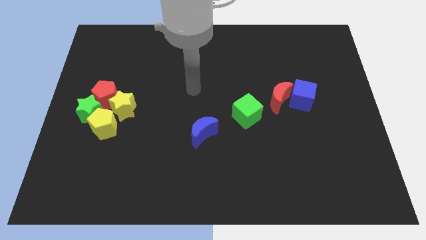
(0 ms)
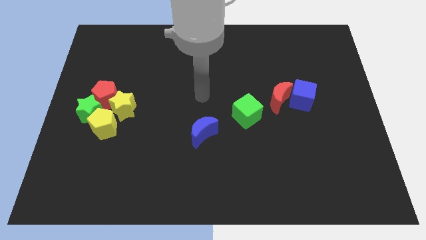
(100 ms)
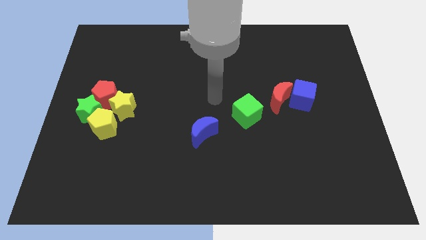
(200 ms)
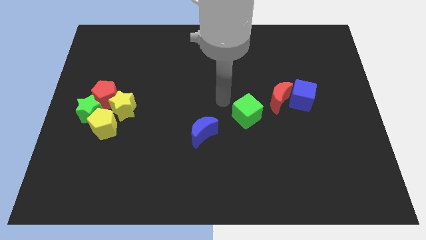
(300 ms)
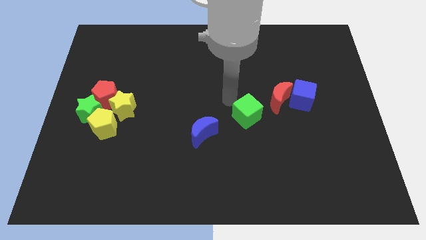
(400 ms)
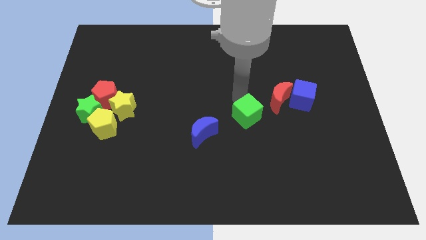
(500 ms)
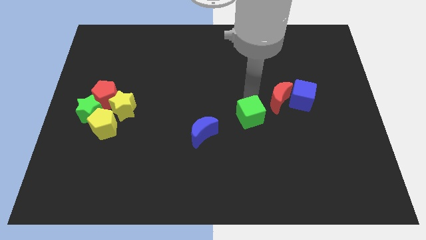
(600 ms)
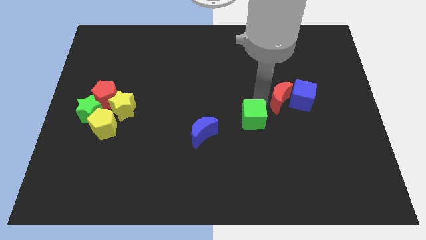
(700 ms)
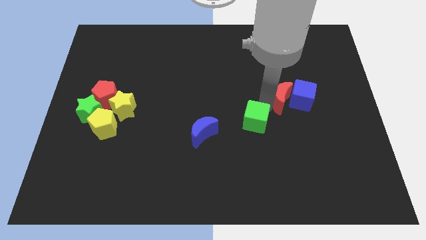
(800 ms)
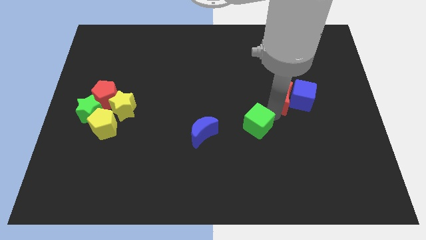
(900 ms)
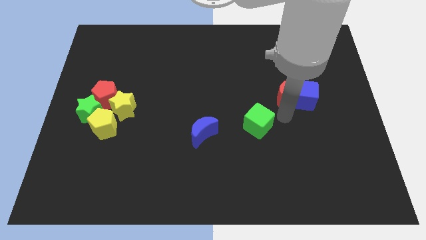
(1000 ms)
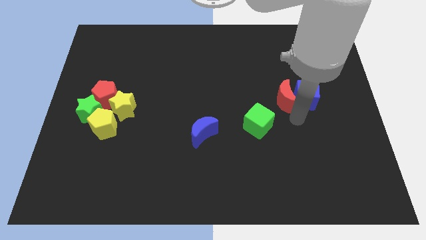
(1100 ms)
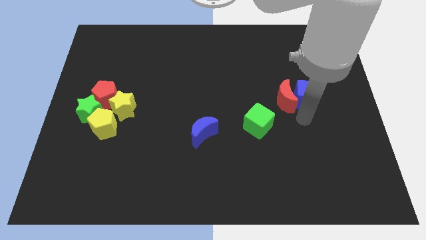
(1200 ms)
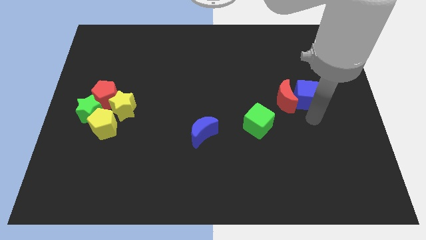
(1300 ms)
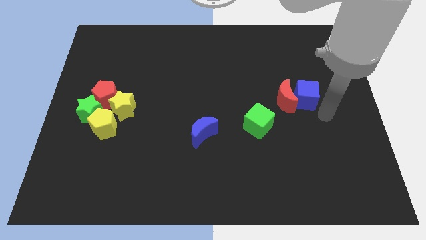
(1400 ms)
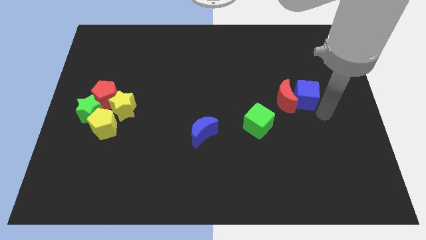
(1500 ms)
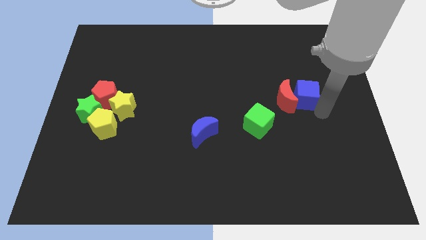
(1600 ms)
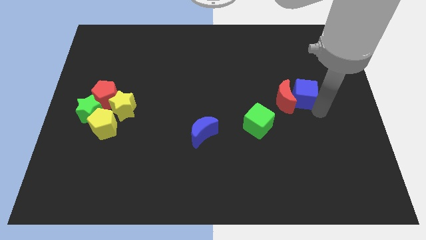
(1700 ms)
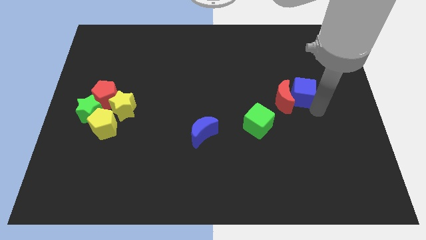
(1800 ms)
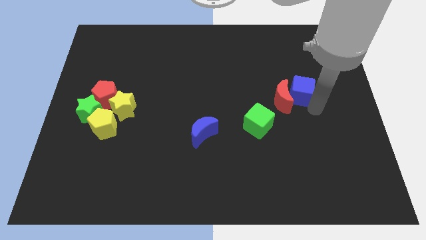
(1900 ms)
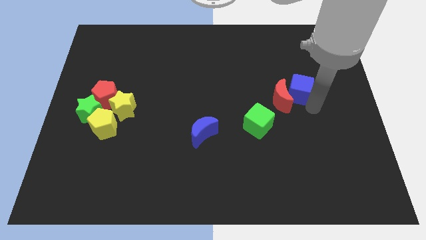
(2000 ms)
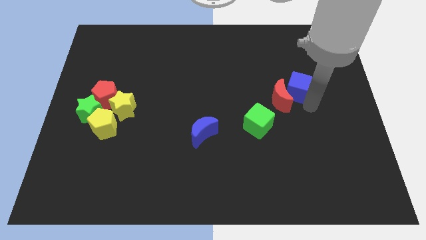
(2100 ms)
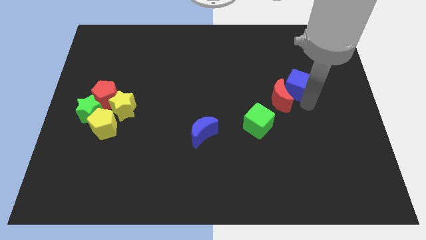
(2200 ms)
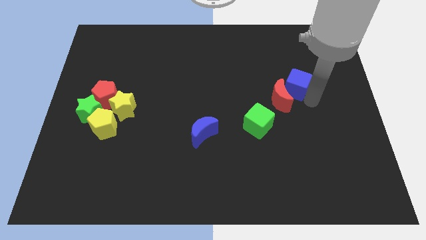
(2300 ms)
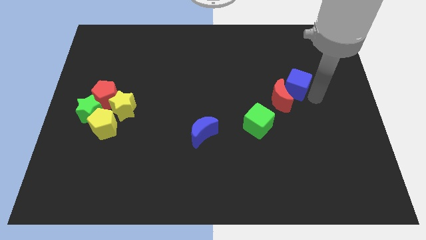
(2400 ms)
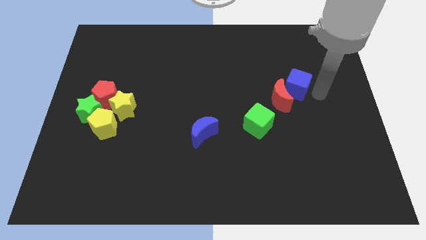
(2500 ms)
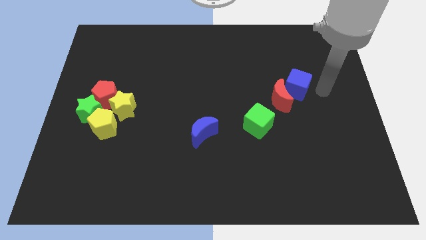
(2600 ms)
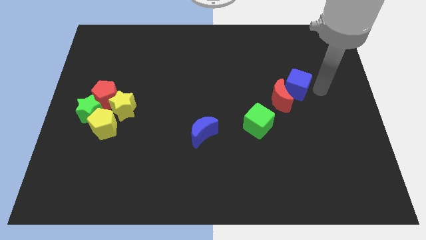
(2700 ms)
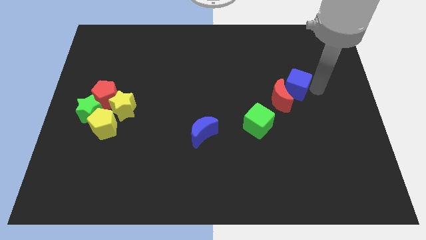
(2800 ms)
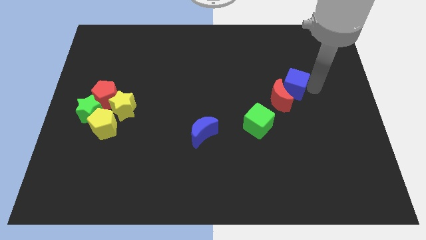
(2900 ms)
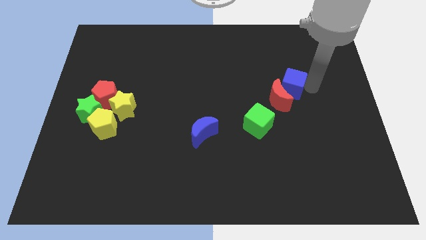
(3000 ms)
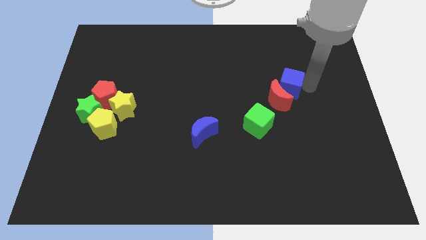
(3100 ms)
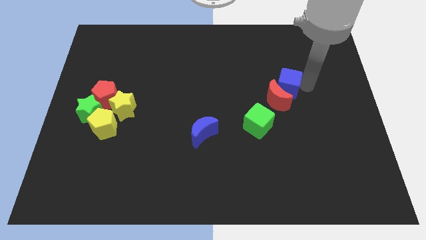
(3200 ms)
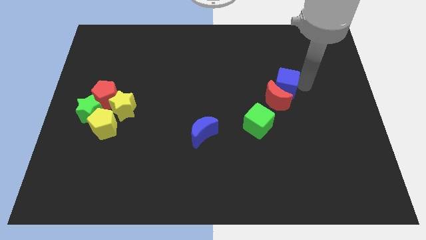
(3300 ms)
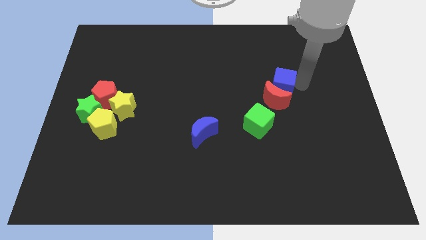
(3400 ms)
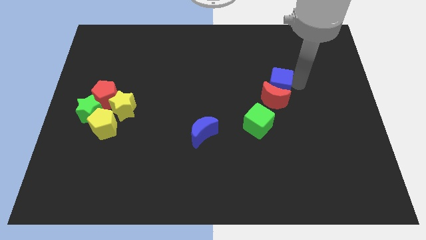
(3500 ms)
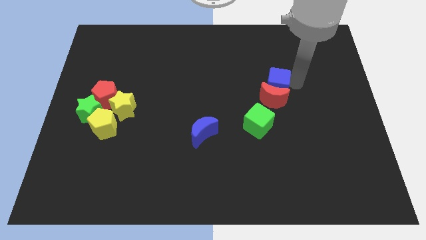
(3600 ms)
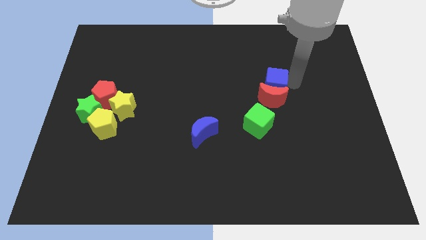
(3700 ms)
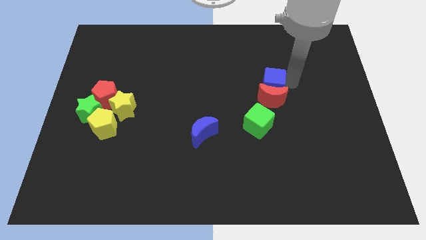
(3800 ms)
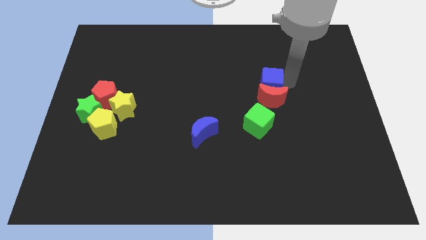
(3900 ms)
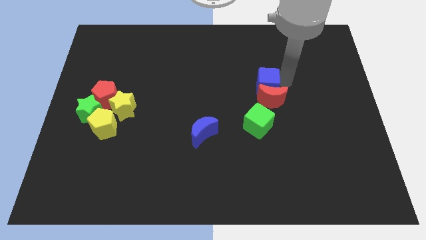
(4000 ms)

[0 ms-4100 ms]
slide the blue cube to the left a little bit

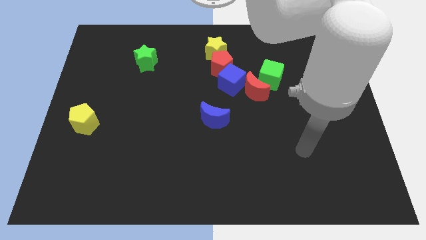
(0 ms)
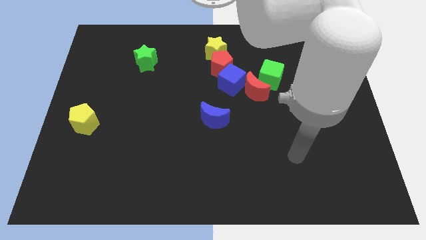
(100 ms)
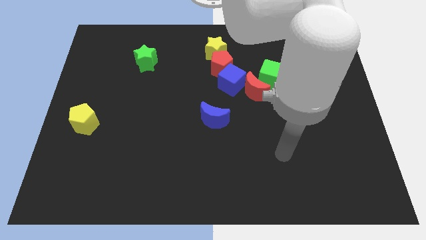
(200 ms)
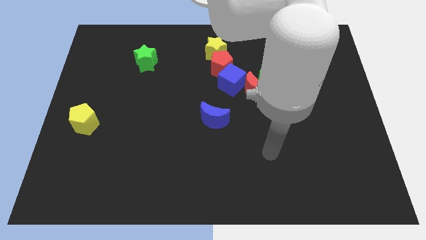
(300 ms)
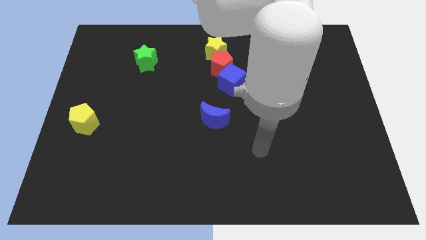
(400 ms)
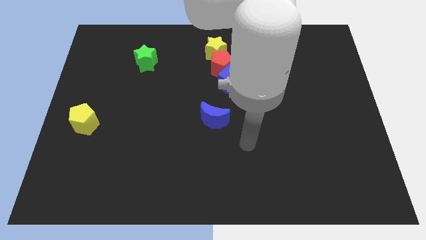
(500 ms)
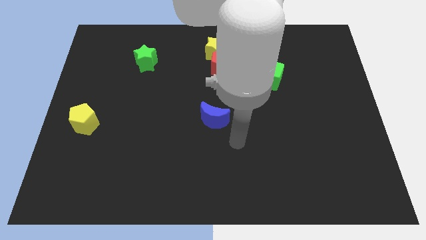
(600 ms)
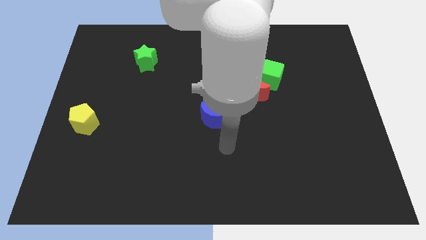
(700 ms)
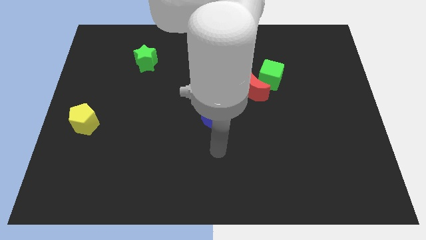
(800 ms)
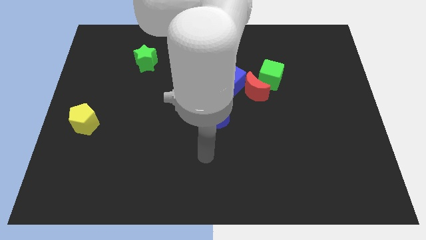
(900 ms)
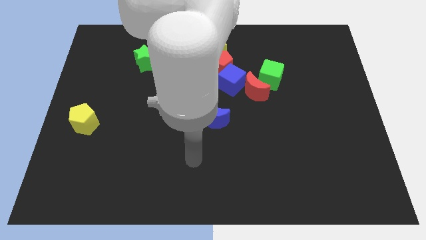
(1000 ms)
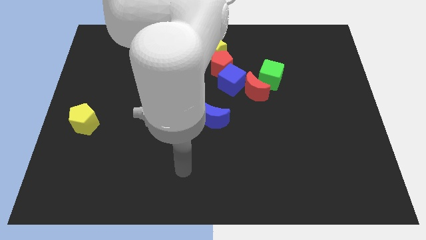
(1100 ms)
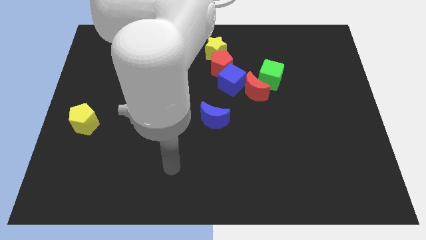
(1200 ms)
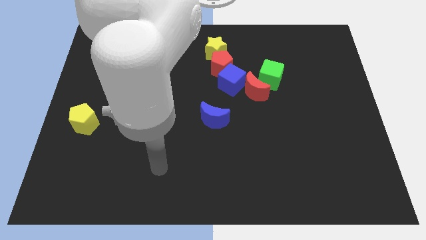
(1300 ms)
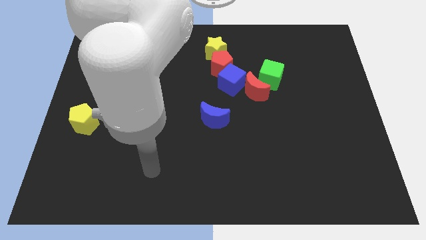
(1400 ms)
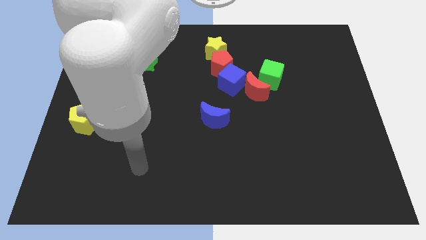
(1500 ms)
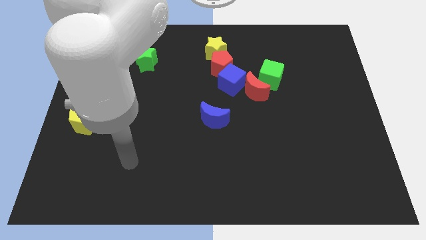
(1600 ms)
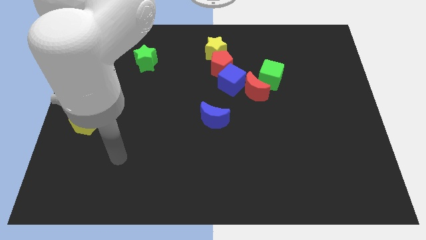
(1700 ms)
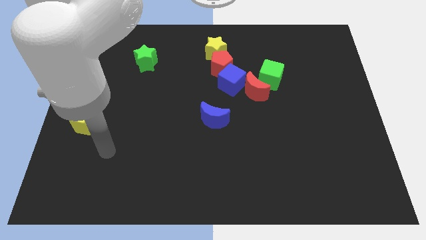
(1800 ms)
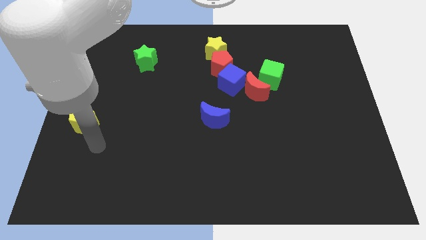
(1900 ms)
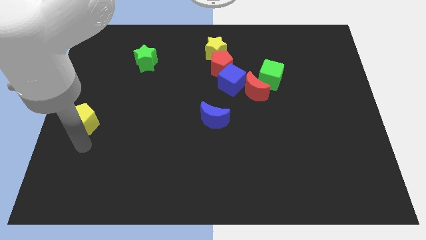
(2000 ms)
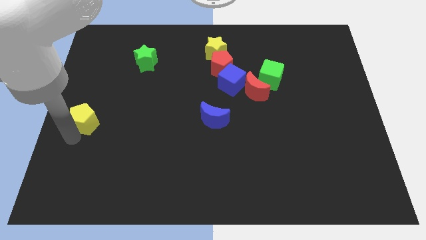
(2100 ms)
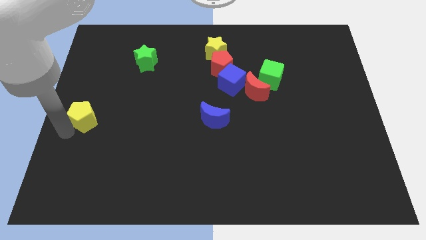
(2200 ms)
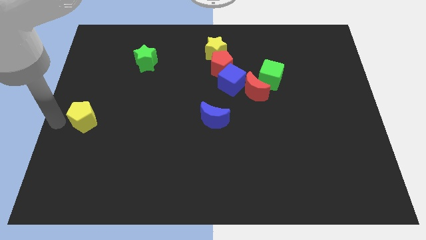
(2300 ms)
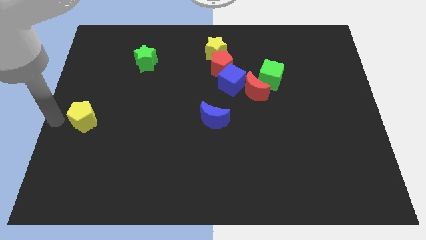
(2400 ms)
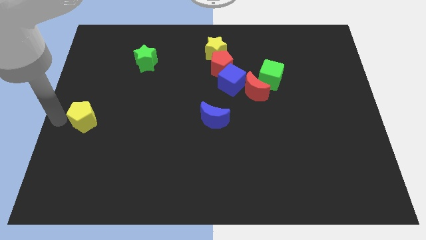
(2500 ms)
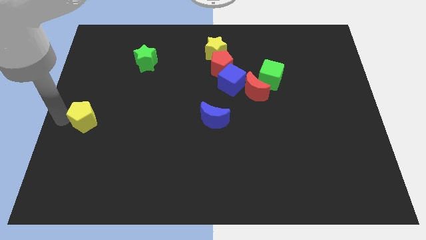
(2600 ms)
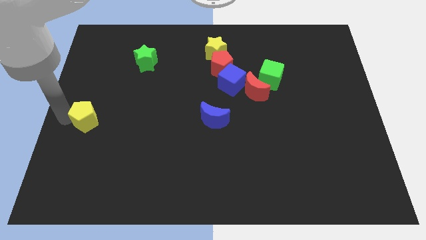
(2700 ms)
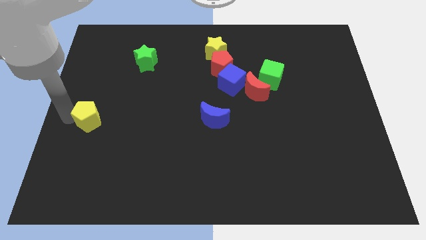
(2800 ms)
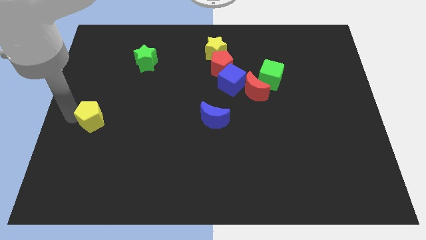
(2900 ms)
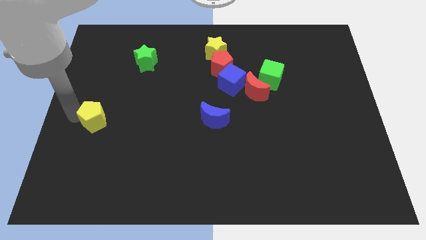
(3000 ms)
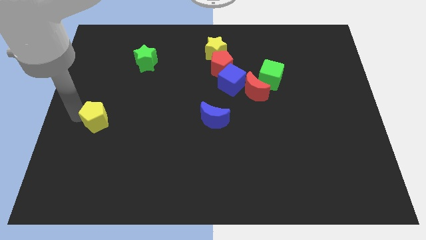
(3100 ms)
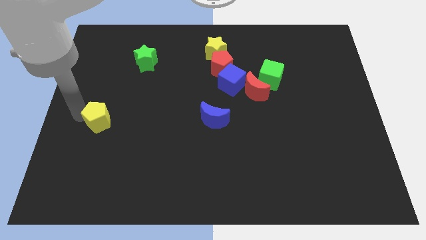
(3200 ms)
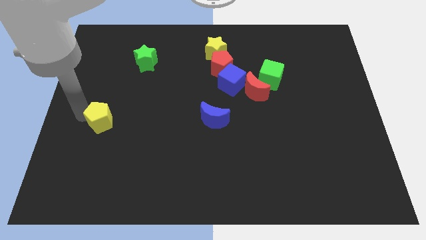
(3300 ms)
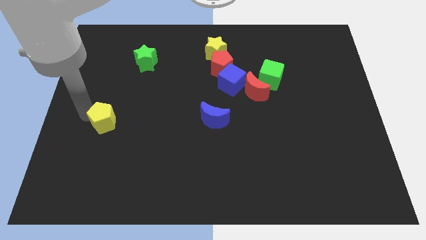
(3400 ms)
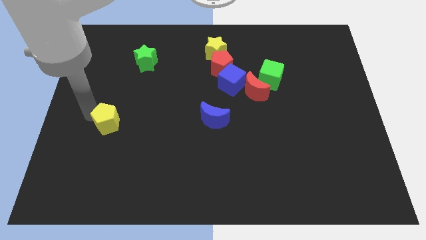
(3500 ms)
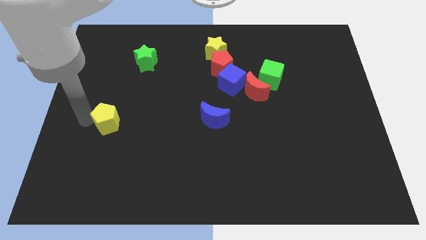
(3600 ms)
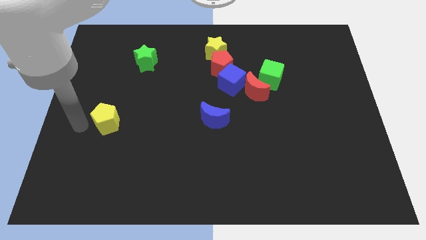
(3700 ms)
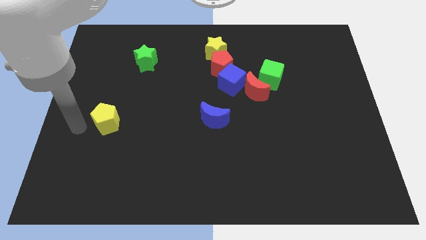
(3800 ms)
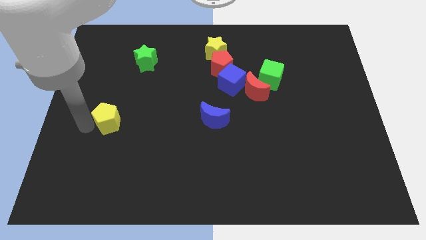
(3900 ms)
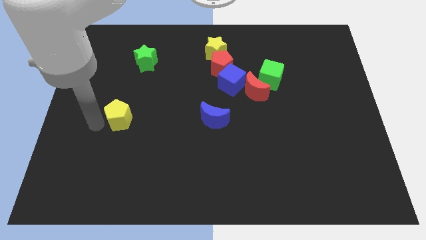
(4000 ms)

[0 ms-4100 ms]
slightly slide the yellow pentagon right
